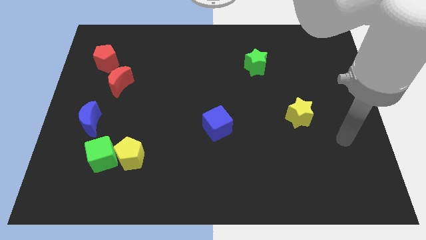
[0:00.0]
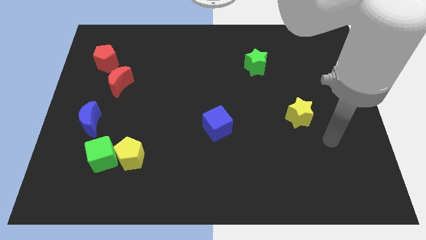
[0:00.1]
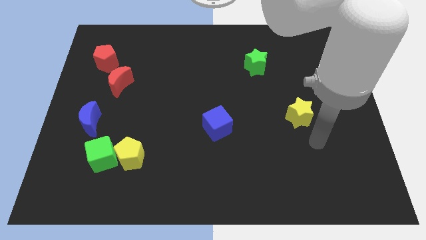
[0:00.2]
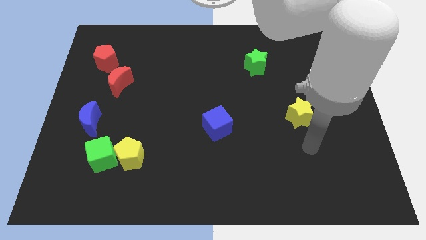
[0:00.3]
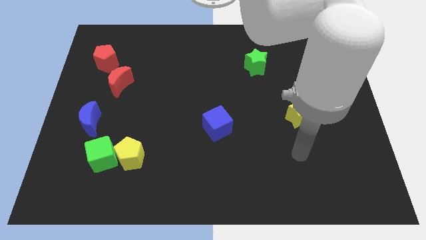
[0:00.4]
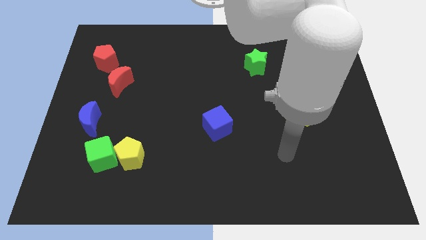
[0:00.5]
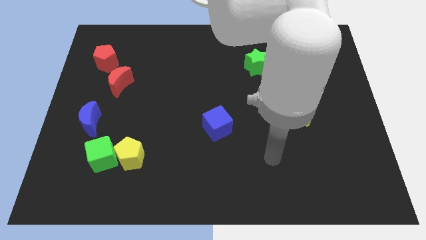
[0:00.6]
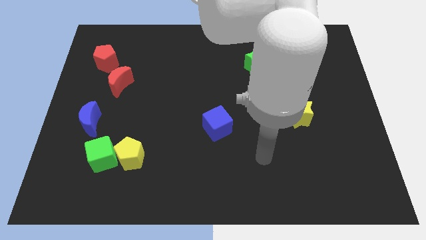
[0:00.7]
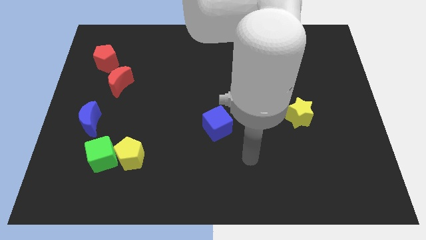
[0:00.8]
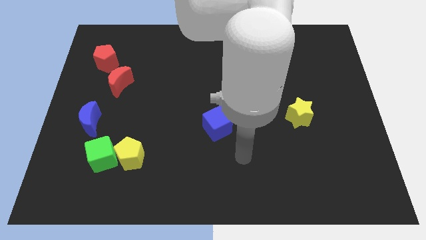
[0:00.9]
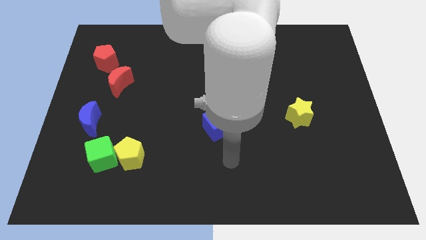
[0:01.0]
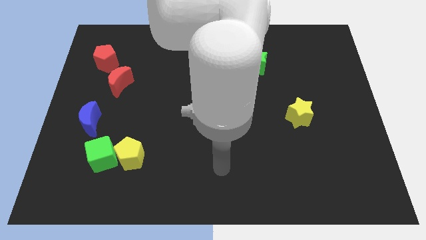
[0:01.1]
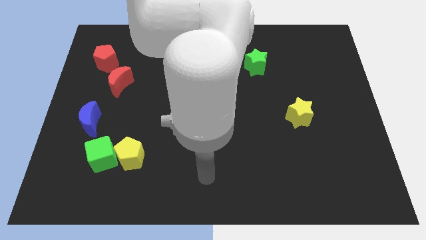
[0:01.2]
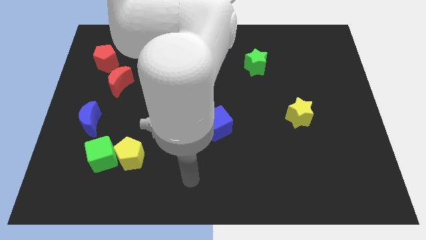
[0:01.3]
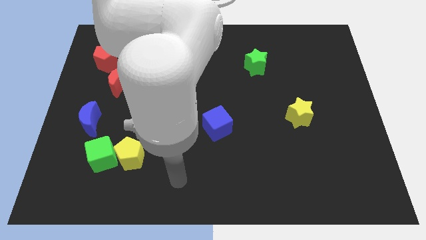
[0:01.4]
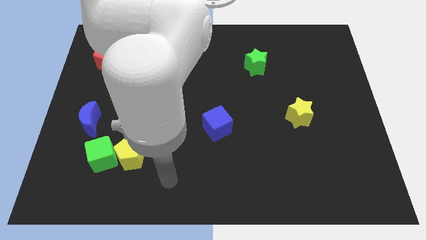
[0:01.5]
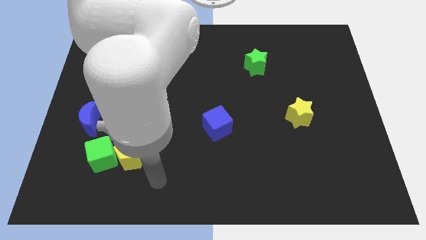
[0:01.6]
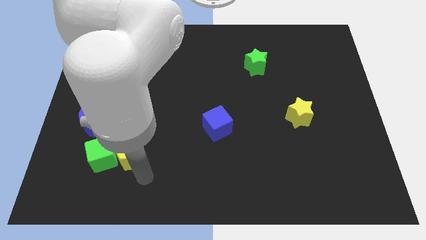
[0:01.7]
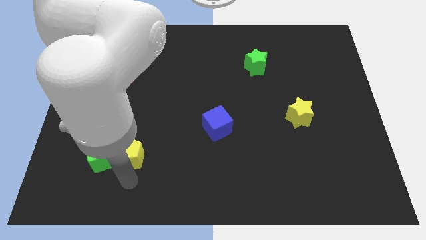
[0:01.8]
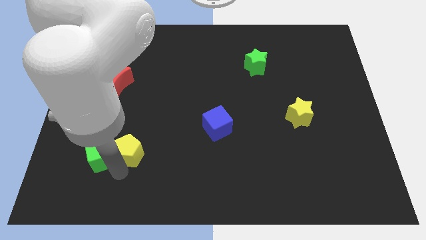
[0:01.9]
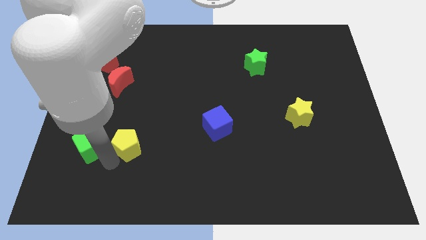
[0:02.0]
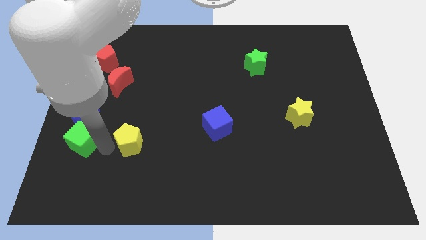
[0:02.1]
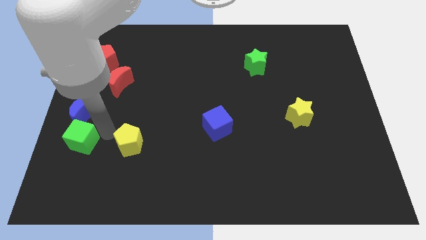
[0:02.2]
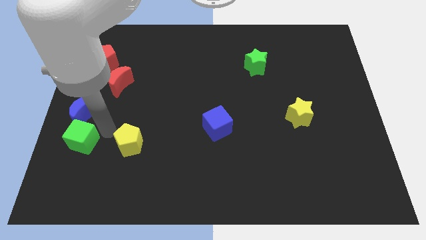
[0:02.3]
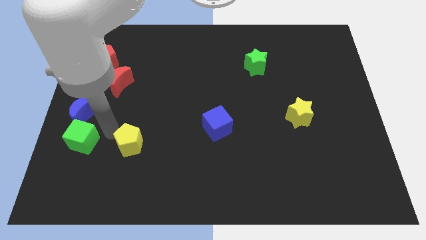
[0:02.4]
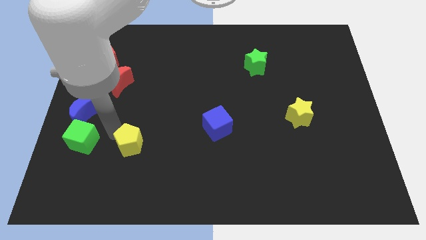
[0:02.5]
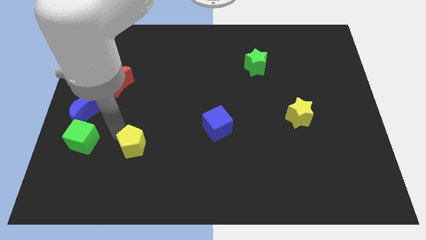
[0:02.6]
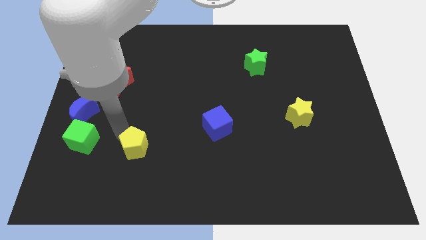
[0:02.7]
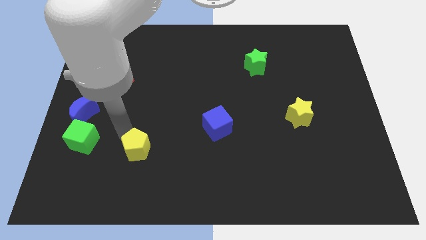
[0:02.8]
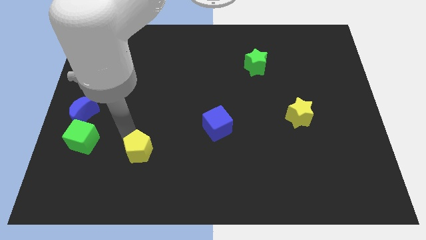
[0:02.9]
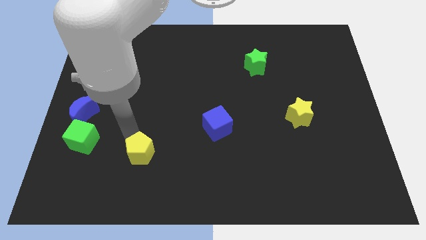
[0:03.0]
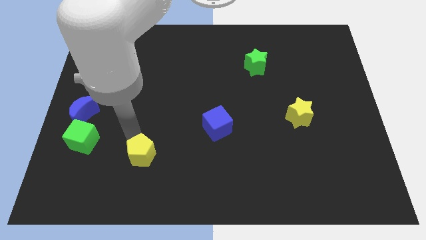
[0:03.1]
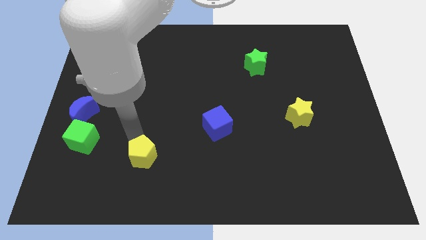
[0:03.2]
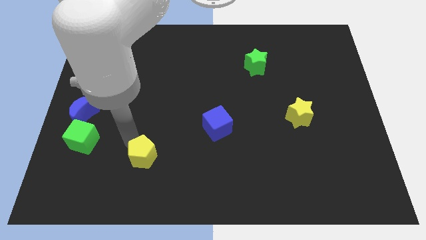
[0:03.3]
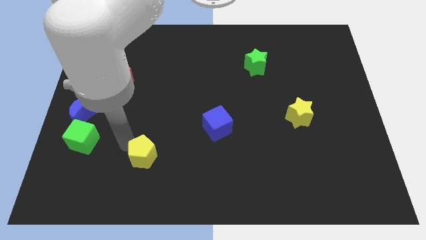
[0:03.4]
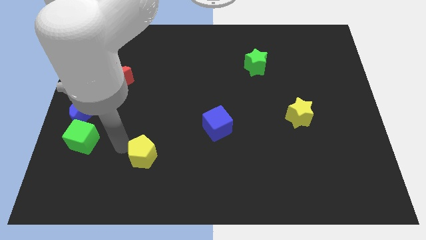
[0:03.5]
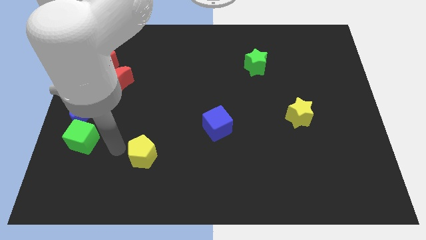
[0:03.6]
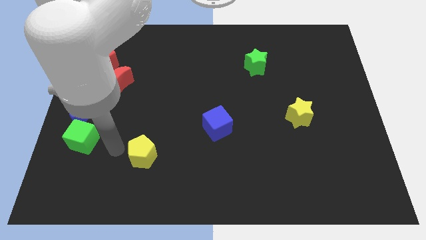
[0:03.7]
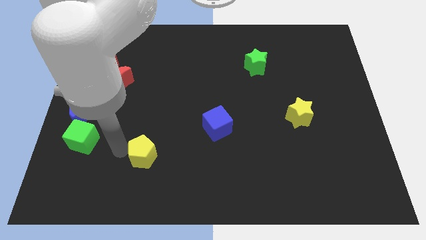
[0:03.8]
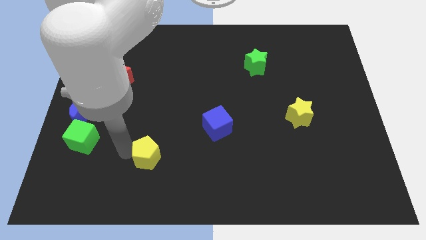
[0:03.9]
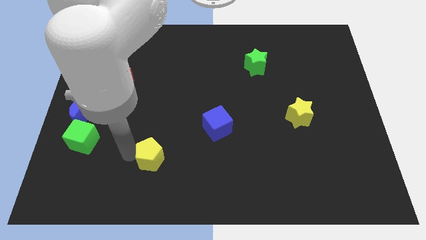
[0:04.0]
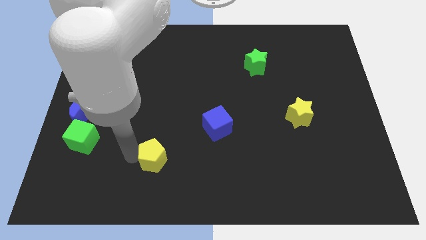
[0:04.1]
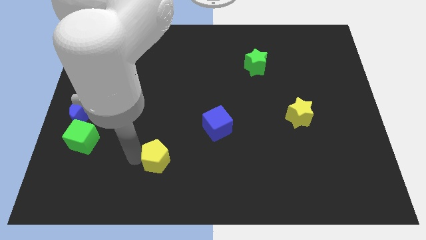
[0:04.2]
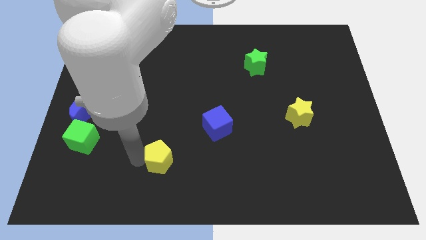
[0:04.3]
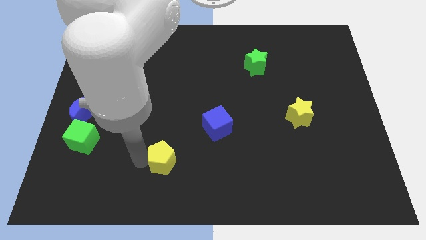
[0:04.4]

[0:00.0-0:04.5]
slide the yellow pentagon slightly to the right

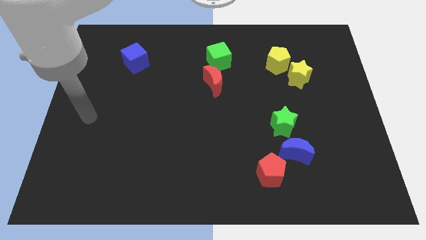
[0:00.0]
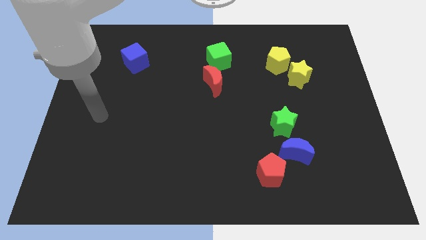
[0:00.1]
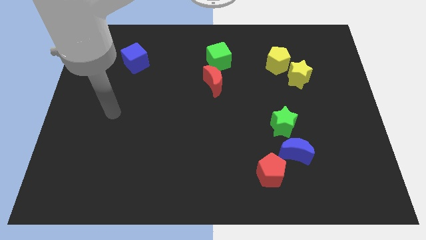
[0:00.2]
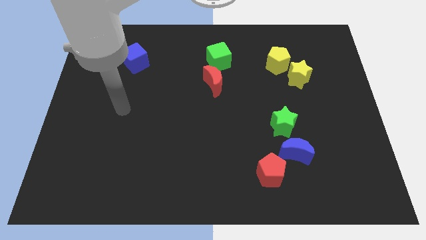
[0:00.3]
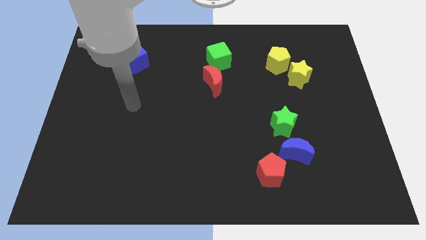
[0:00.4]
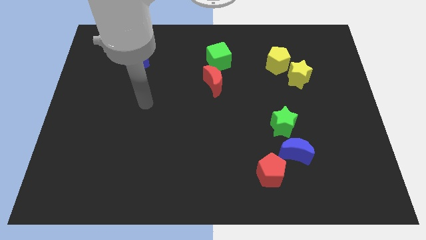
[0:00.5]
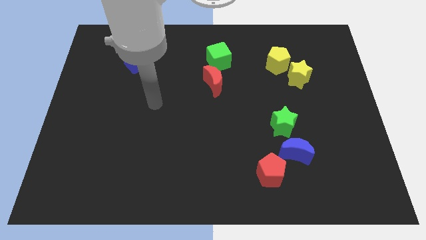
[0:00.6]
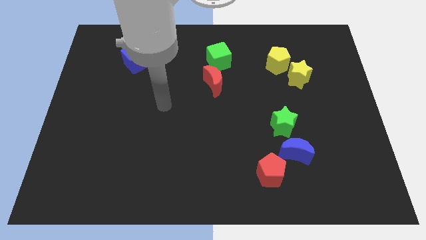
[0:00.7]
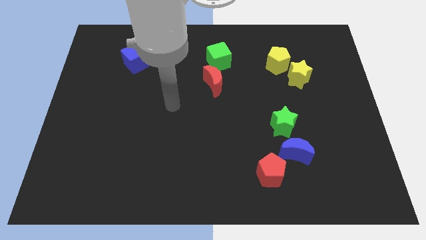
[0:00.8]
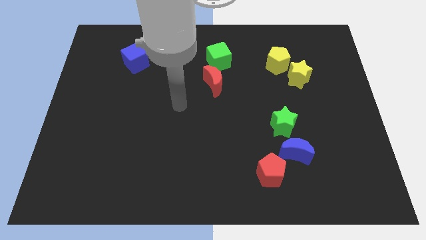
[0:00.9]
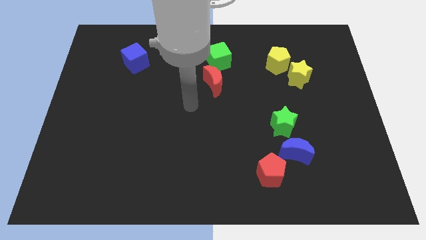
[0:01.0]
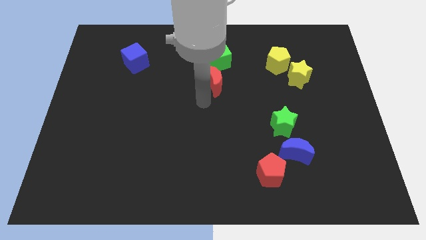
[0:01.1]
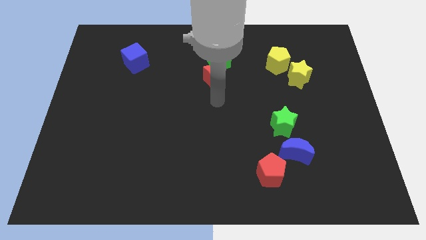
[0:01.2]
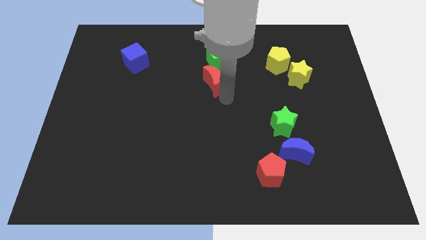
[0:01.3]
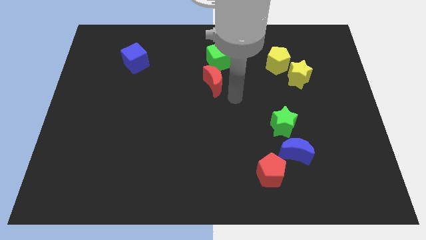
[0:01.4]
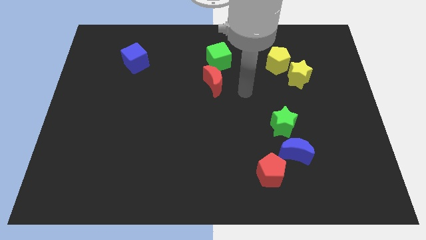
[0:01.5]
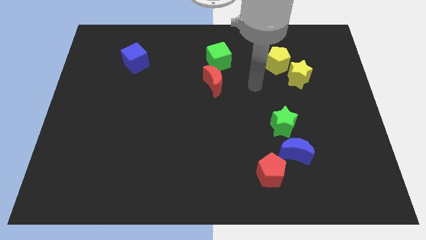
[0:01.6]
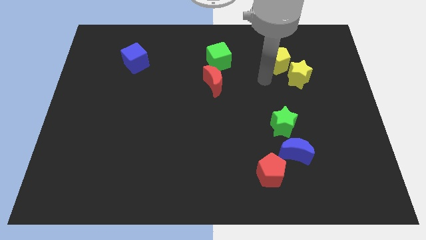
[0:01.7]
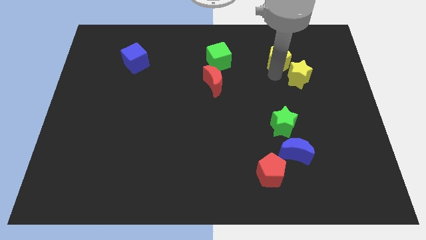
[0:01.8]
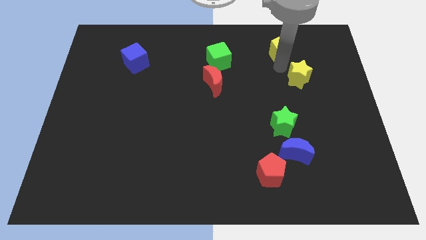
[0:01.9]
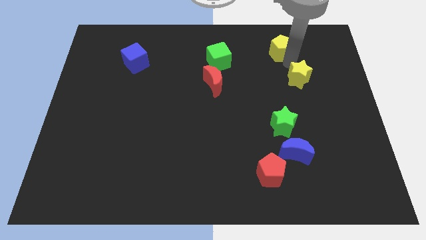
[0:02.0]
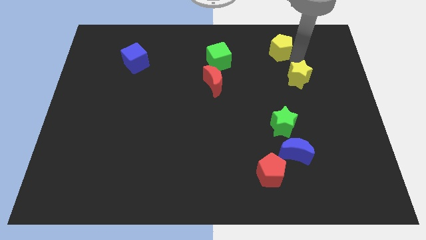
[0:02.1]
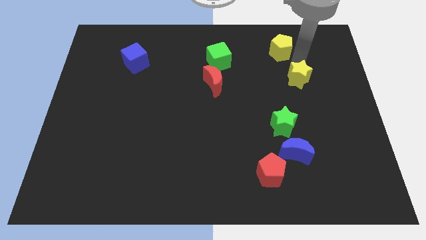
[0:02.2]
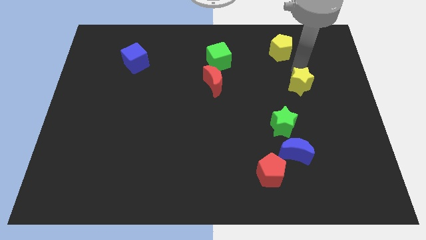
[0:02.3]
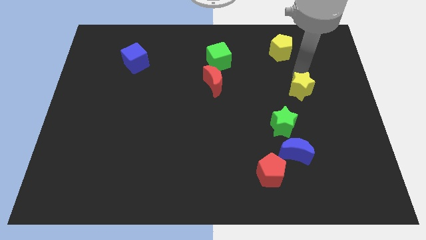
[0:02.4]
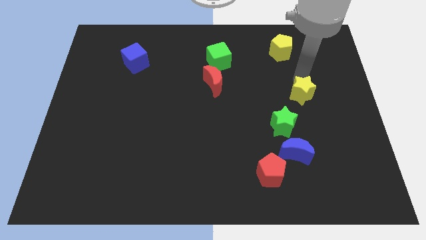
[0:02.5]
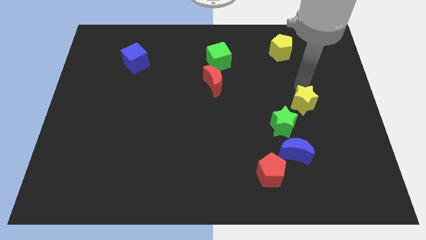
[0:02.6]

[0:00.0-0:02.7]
push the yellow star a bit down

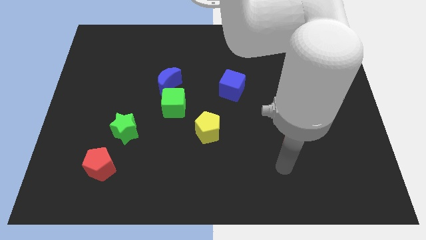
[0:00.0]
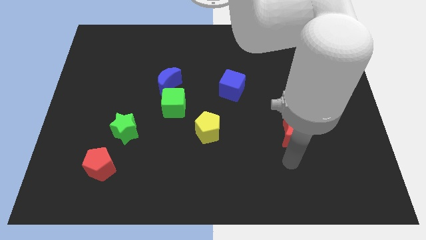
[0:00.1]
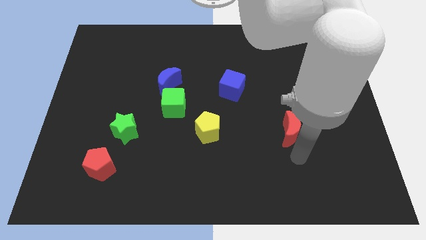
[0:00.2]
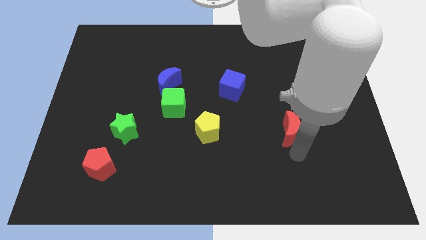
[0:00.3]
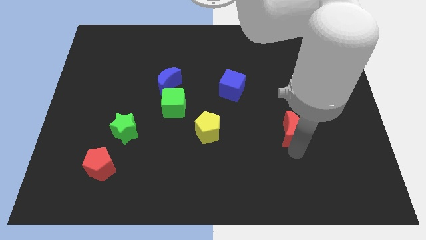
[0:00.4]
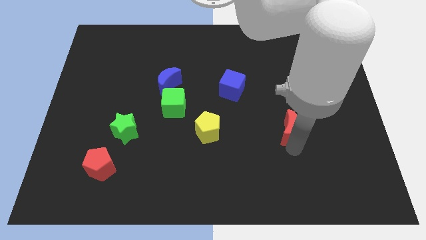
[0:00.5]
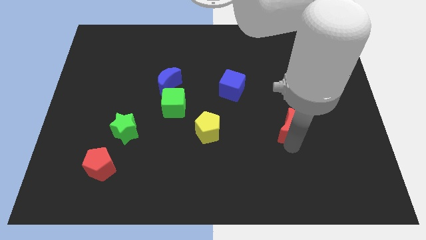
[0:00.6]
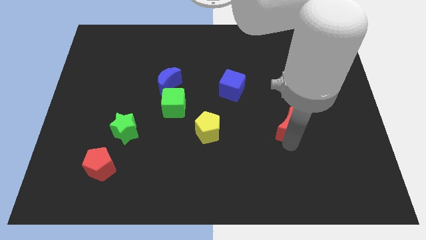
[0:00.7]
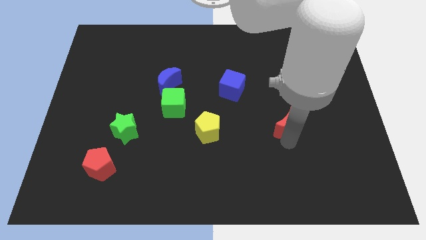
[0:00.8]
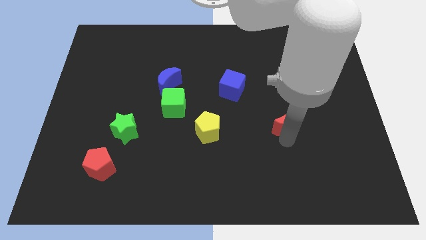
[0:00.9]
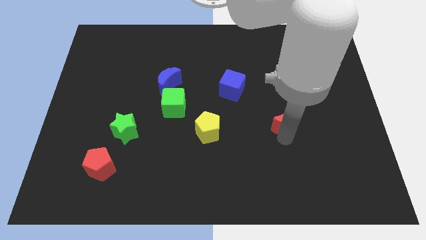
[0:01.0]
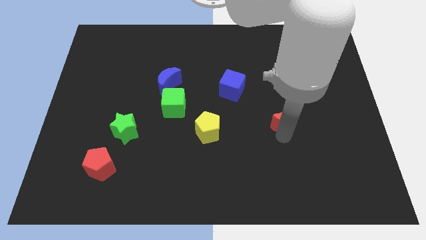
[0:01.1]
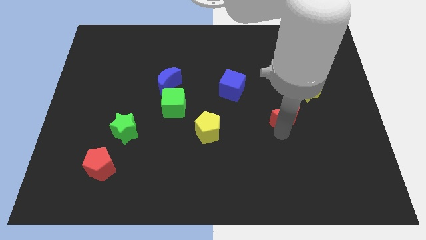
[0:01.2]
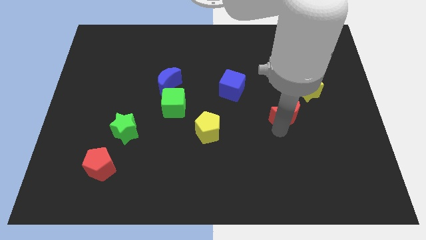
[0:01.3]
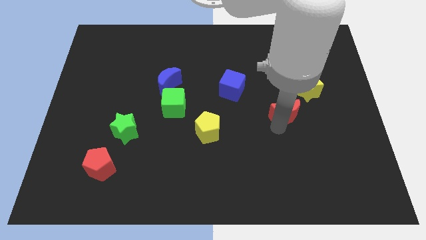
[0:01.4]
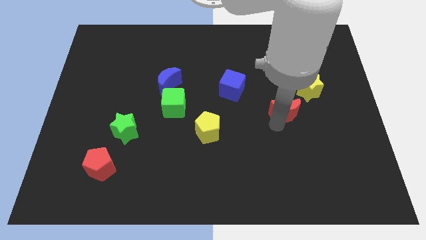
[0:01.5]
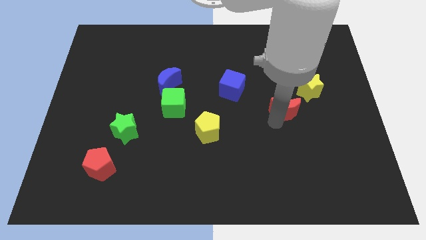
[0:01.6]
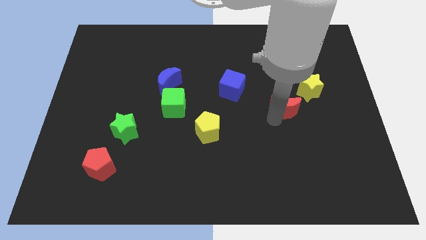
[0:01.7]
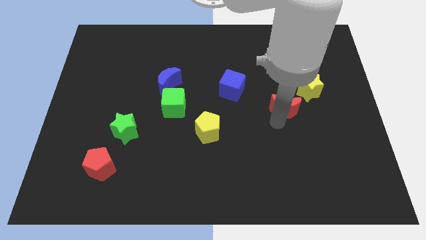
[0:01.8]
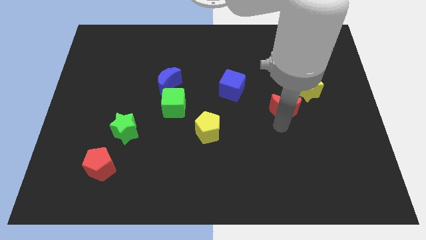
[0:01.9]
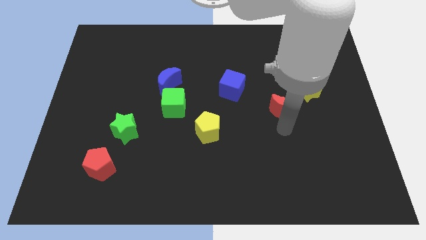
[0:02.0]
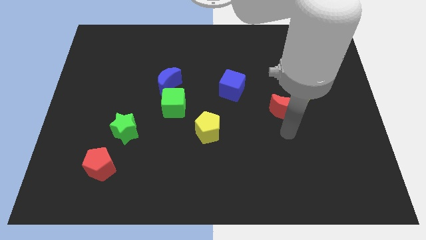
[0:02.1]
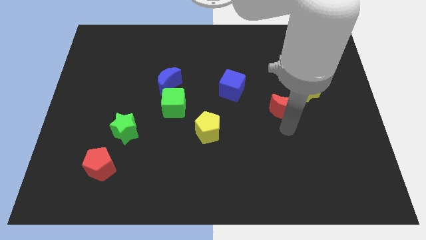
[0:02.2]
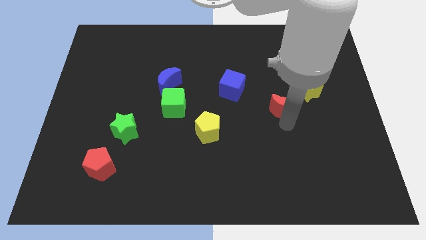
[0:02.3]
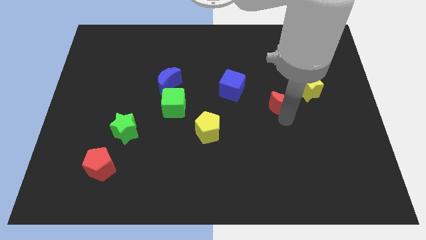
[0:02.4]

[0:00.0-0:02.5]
slightly push the red moon up
